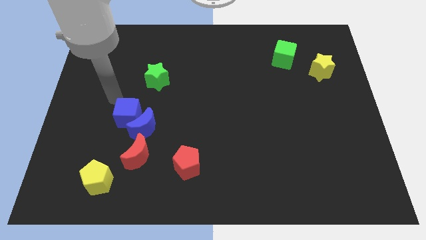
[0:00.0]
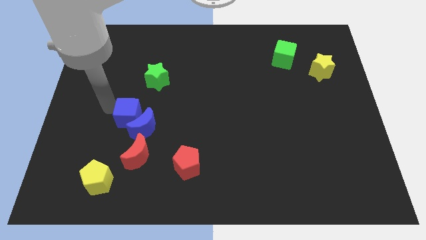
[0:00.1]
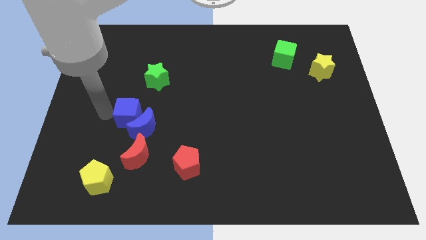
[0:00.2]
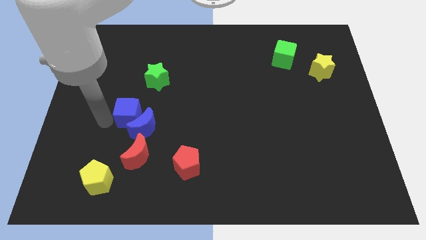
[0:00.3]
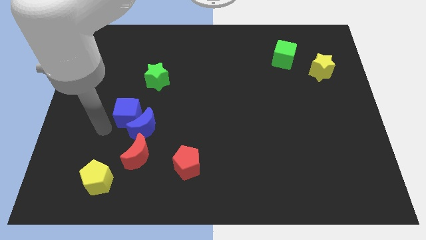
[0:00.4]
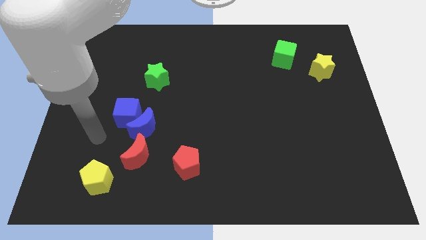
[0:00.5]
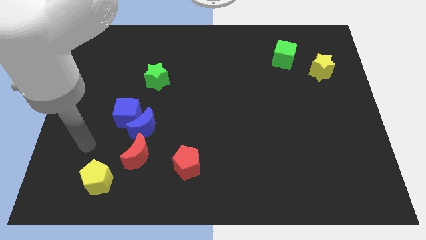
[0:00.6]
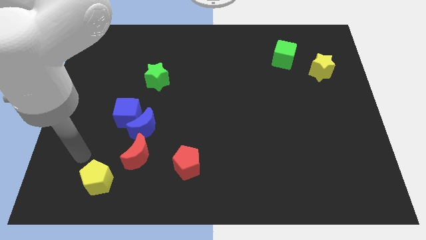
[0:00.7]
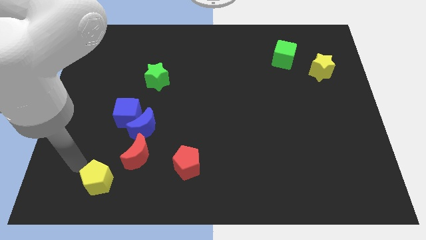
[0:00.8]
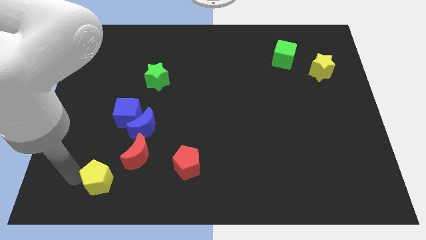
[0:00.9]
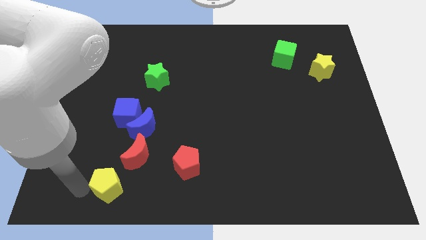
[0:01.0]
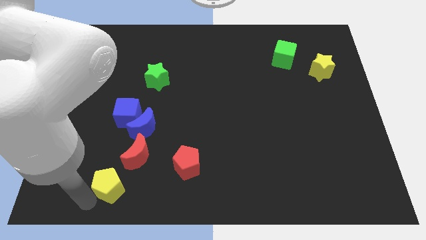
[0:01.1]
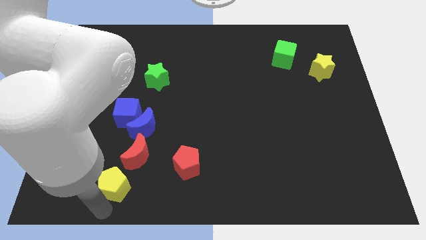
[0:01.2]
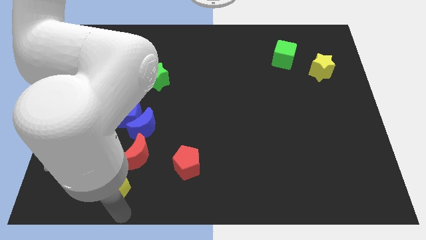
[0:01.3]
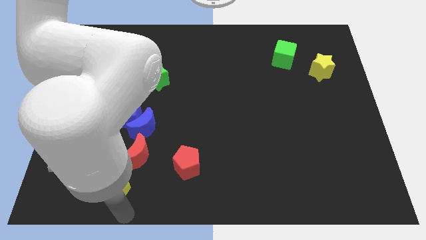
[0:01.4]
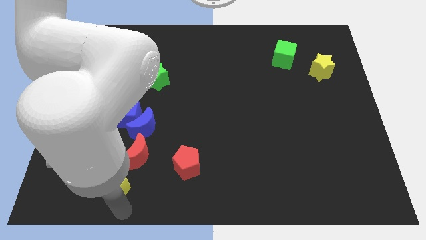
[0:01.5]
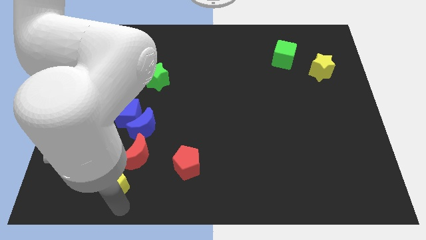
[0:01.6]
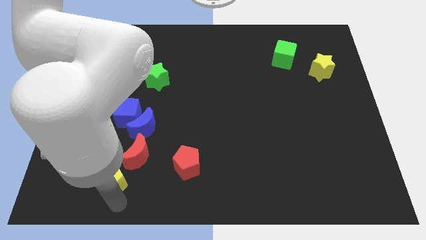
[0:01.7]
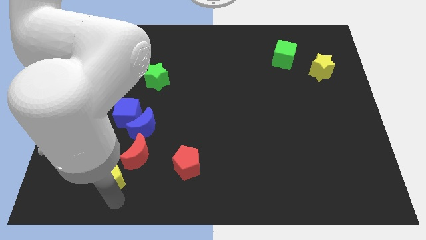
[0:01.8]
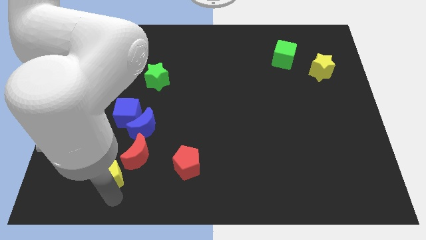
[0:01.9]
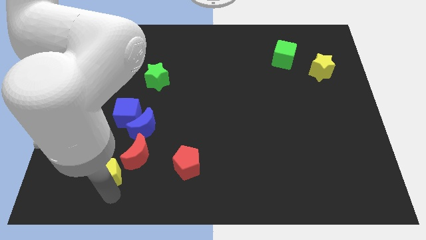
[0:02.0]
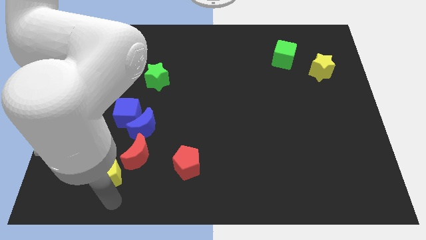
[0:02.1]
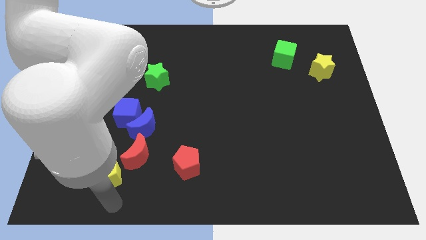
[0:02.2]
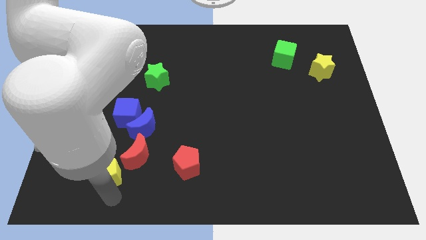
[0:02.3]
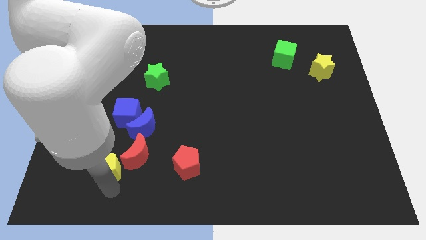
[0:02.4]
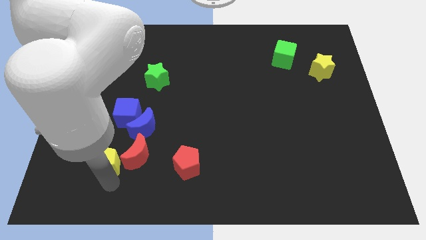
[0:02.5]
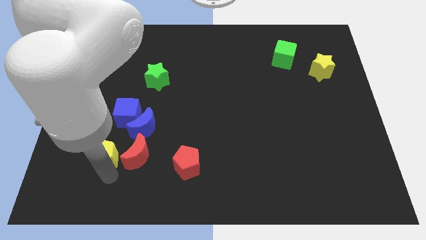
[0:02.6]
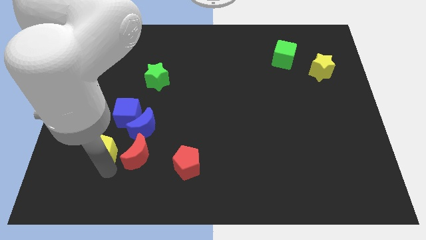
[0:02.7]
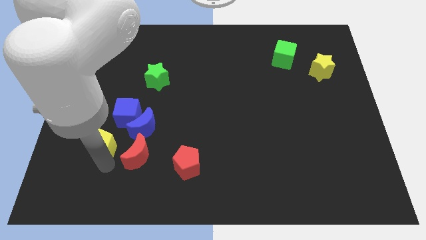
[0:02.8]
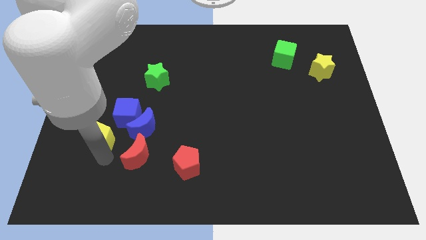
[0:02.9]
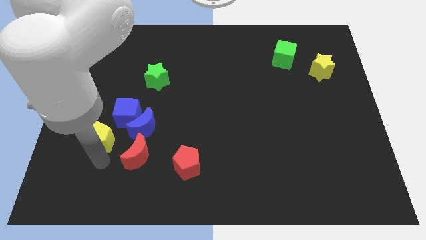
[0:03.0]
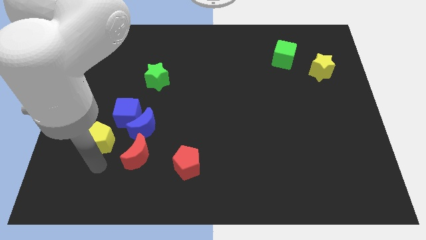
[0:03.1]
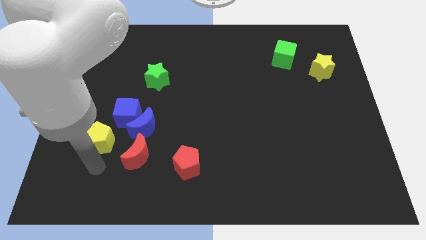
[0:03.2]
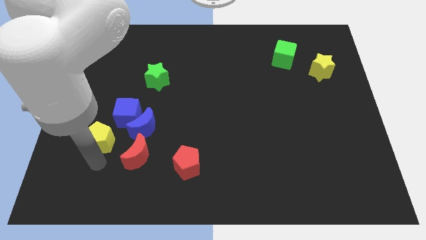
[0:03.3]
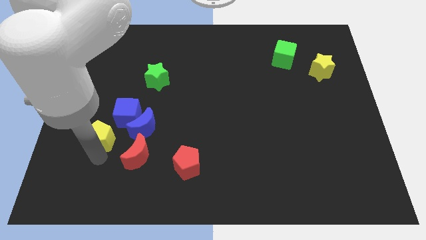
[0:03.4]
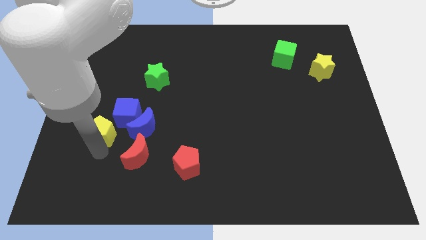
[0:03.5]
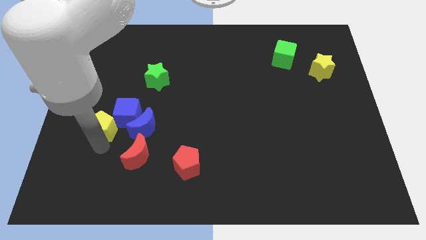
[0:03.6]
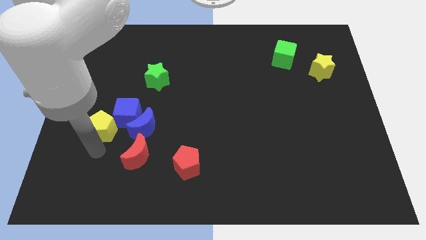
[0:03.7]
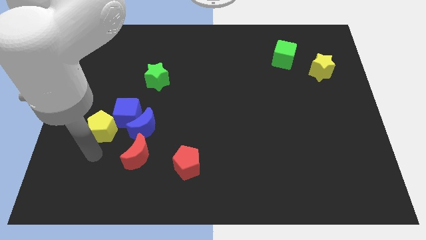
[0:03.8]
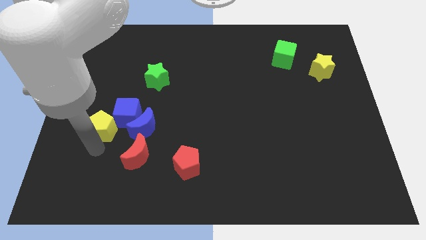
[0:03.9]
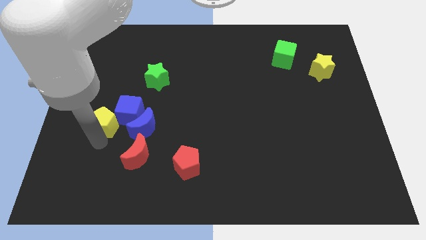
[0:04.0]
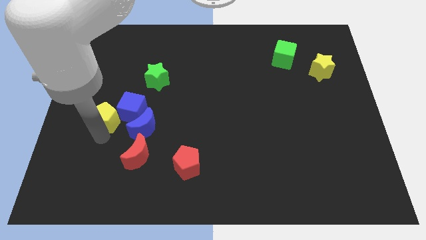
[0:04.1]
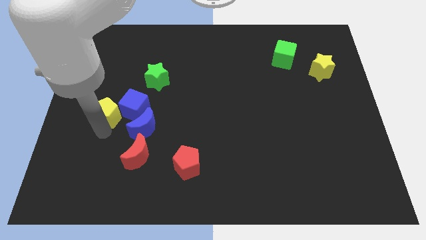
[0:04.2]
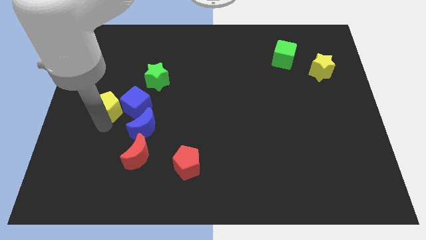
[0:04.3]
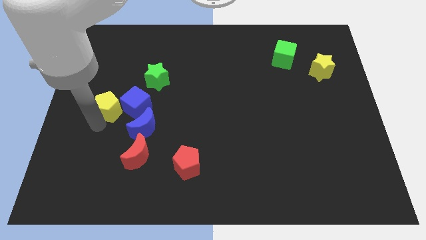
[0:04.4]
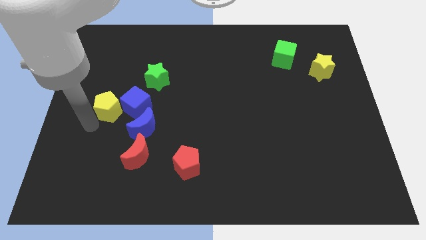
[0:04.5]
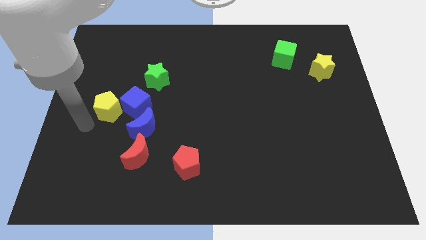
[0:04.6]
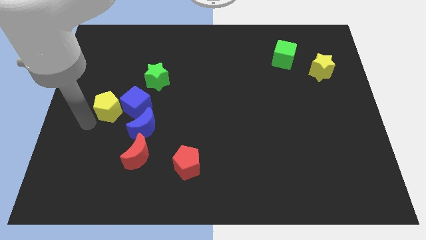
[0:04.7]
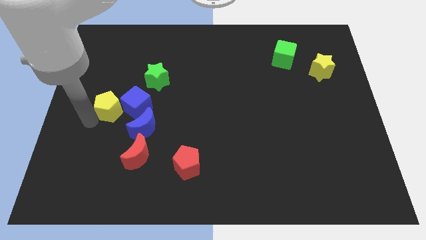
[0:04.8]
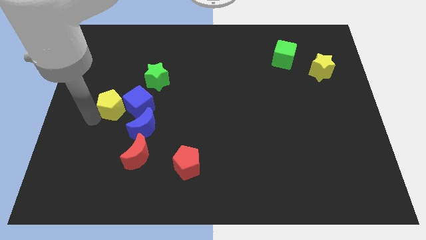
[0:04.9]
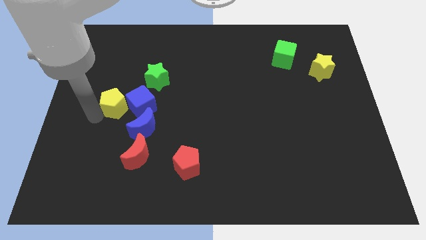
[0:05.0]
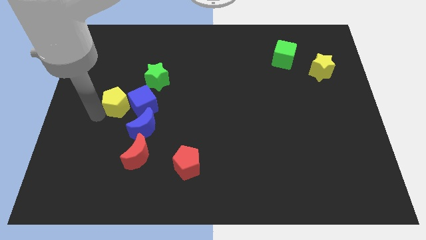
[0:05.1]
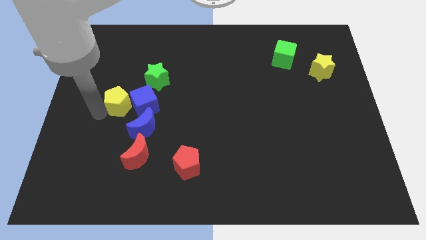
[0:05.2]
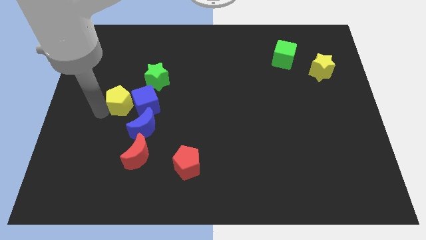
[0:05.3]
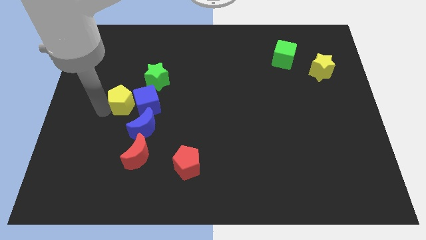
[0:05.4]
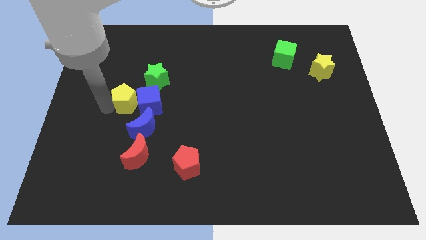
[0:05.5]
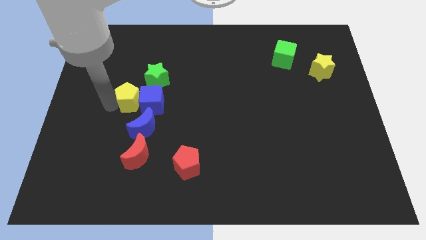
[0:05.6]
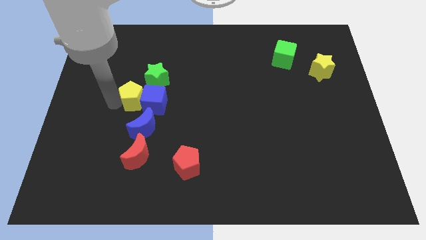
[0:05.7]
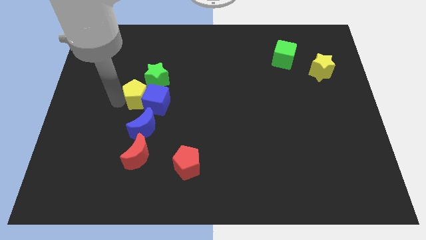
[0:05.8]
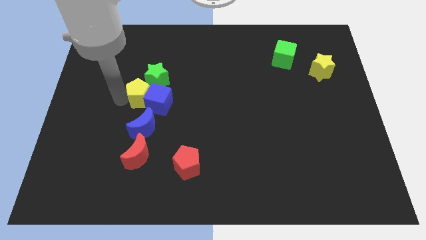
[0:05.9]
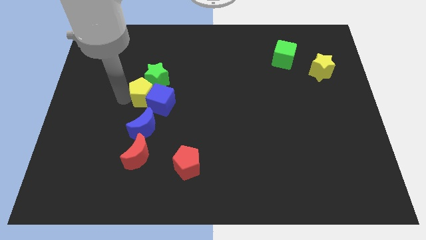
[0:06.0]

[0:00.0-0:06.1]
push the yellow pentagon to the green star

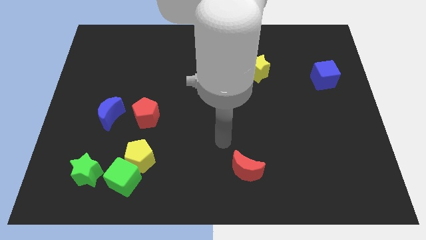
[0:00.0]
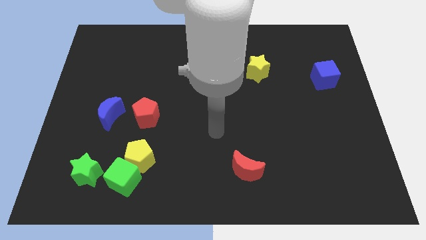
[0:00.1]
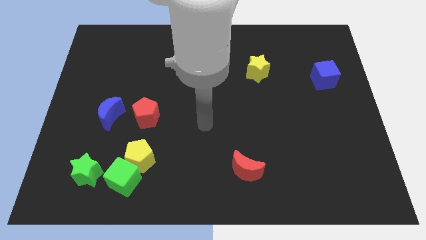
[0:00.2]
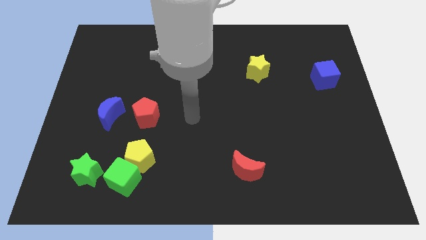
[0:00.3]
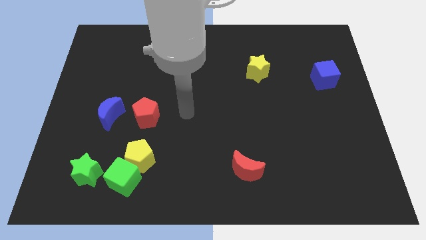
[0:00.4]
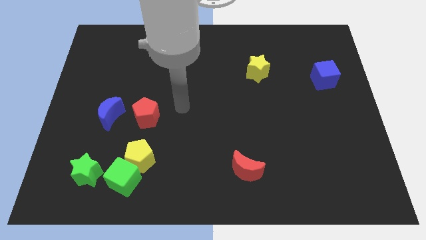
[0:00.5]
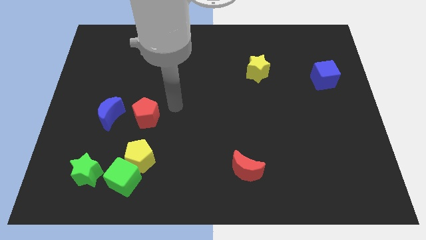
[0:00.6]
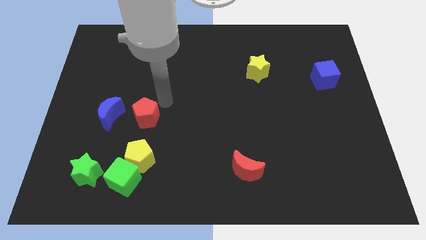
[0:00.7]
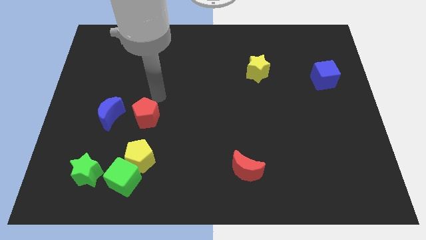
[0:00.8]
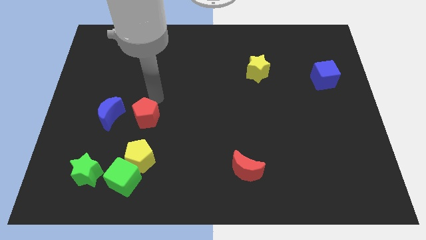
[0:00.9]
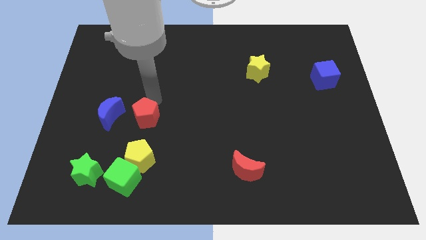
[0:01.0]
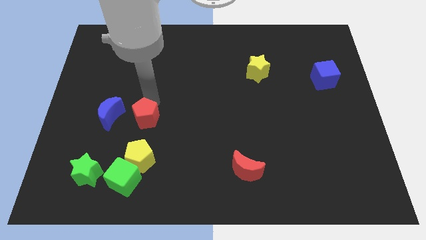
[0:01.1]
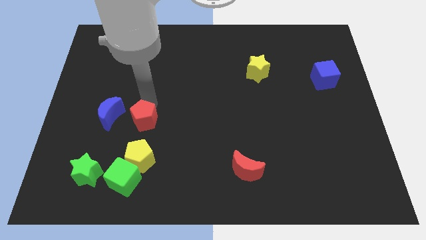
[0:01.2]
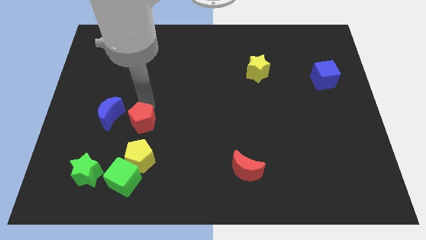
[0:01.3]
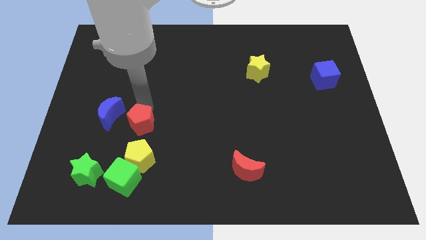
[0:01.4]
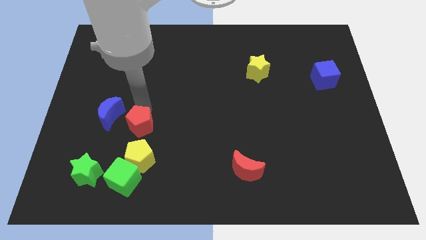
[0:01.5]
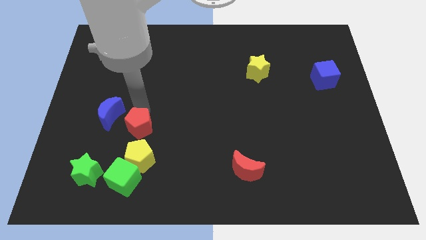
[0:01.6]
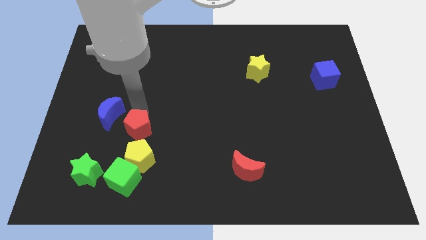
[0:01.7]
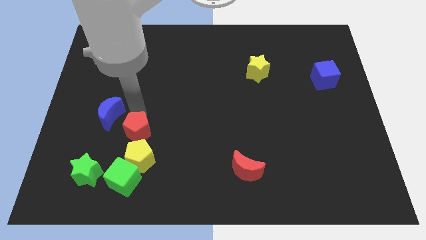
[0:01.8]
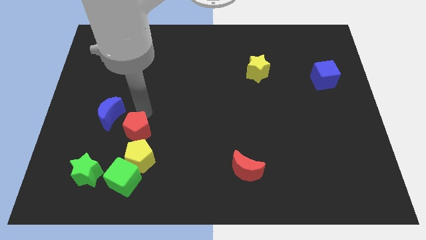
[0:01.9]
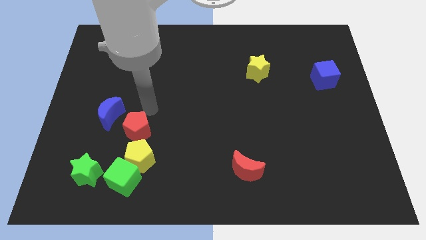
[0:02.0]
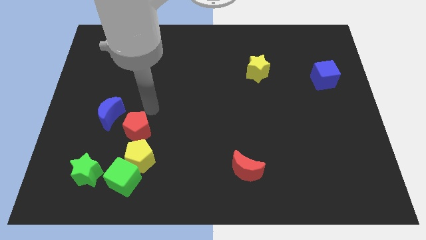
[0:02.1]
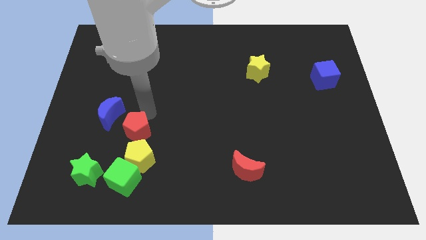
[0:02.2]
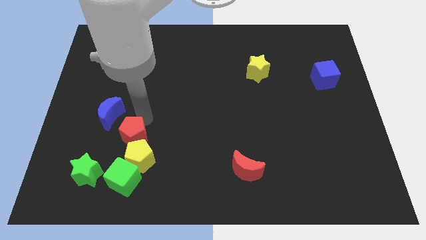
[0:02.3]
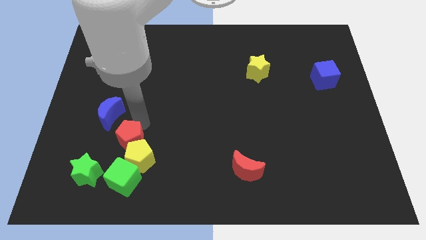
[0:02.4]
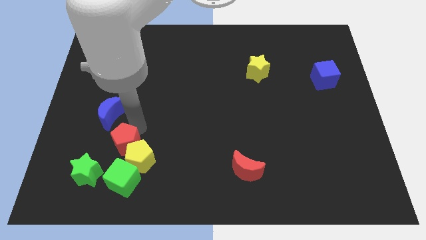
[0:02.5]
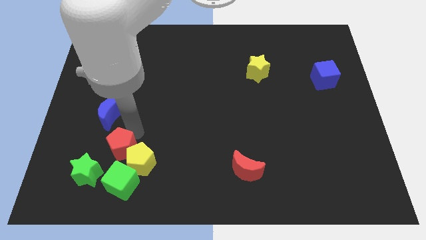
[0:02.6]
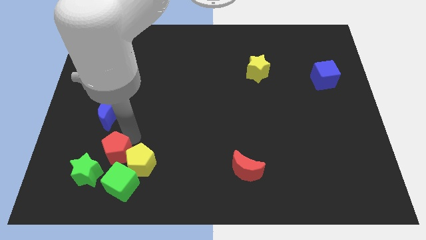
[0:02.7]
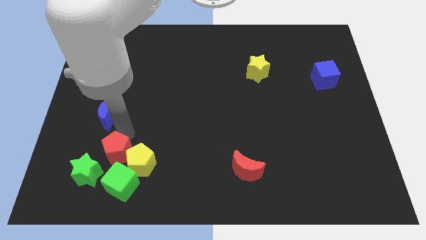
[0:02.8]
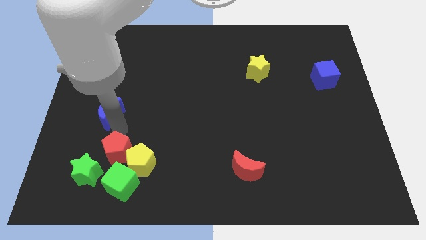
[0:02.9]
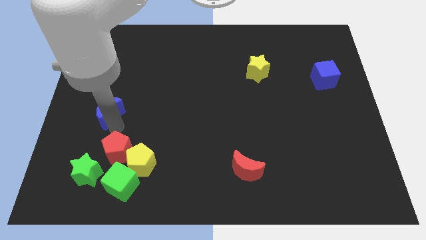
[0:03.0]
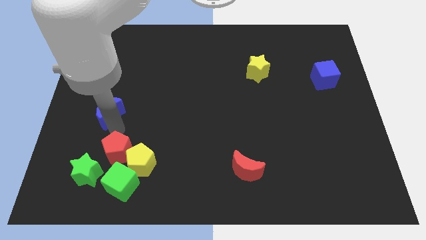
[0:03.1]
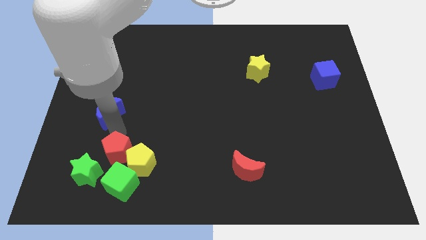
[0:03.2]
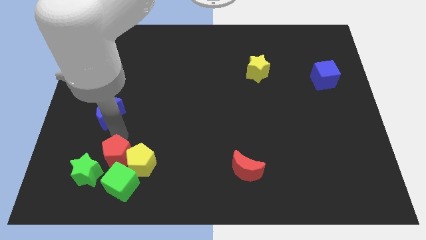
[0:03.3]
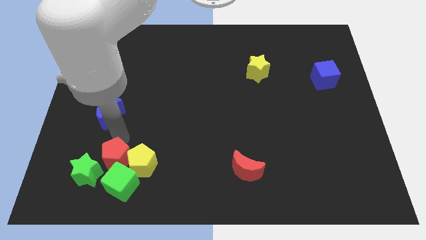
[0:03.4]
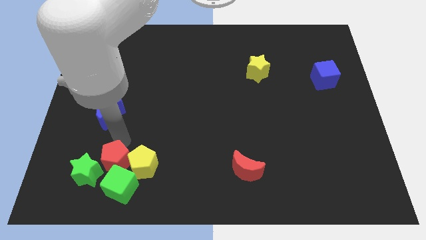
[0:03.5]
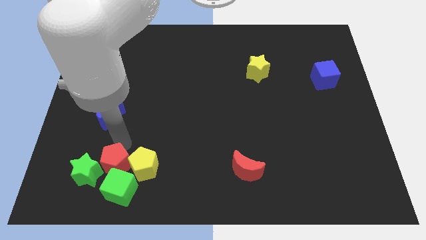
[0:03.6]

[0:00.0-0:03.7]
push the red pentagon towards the green cube
